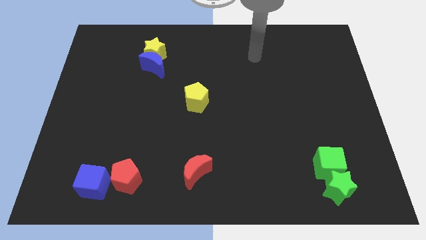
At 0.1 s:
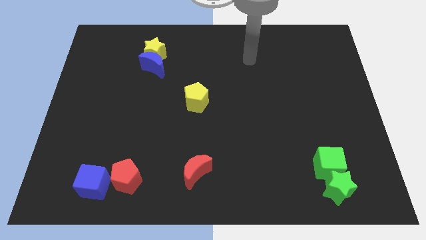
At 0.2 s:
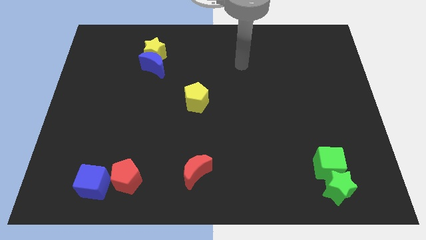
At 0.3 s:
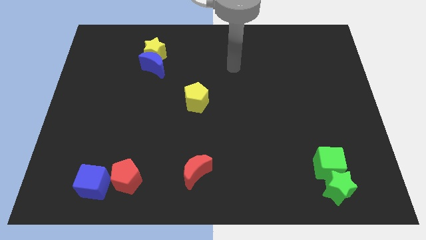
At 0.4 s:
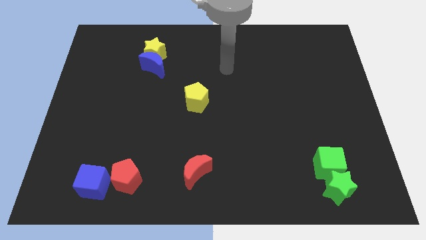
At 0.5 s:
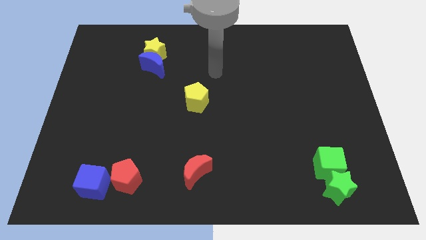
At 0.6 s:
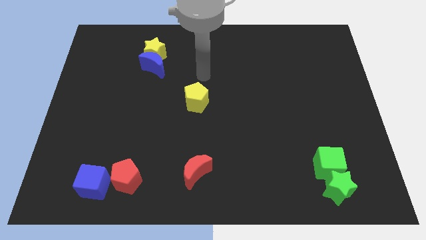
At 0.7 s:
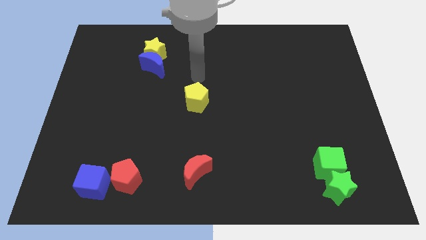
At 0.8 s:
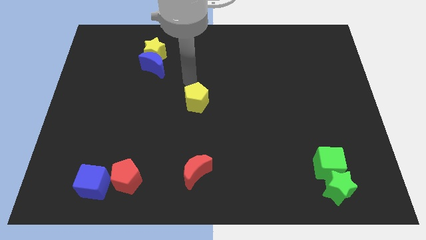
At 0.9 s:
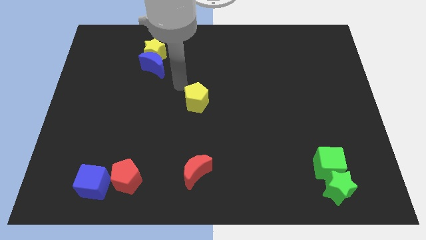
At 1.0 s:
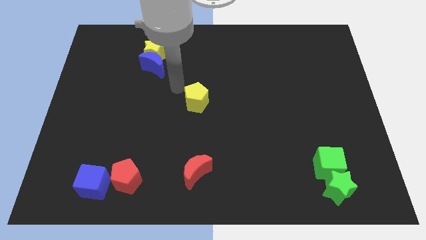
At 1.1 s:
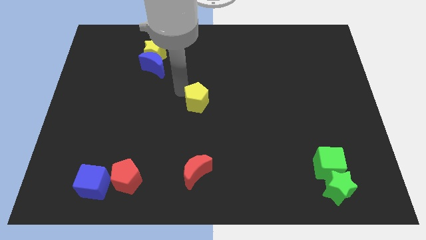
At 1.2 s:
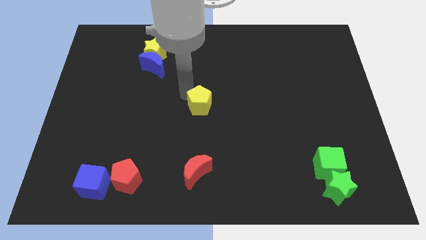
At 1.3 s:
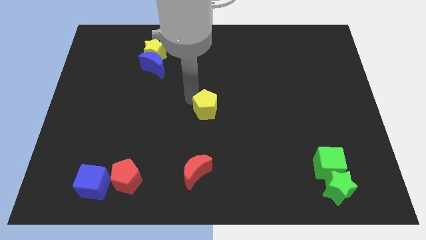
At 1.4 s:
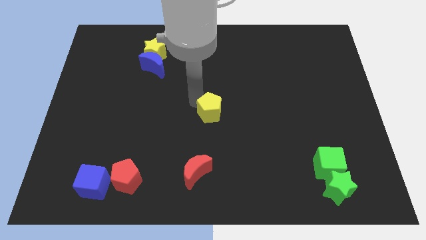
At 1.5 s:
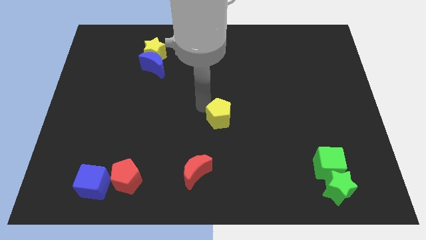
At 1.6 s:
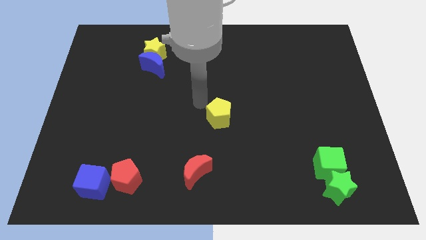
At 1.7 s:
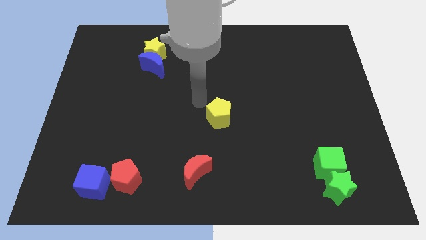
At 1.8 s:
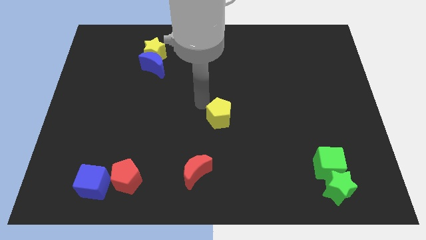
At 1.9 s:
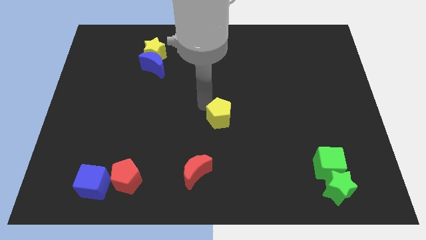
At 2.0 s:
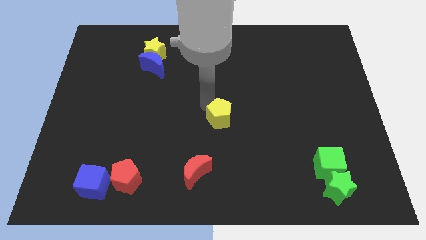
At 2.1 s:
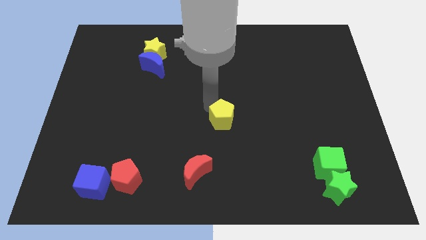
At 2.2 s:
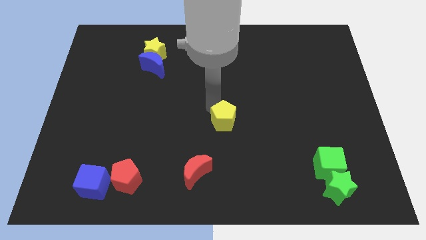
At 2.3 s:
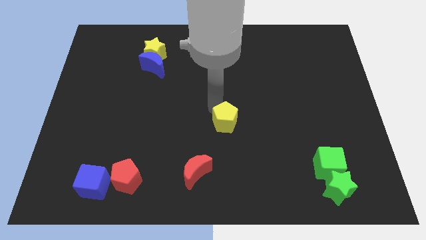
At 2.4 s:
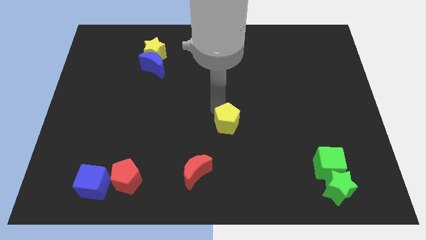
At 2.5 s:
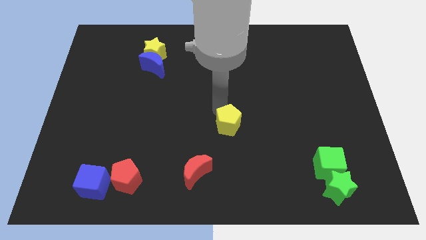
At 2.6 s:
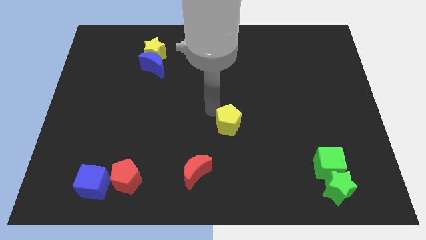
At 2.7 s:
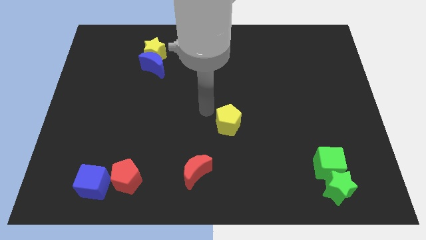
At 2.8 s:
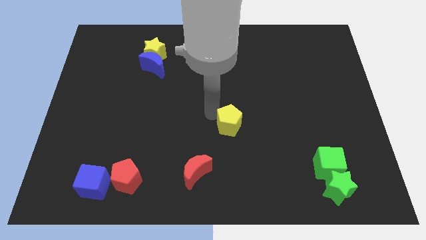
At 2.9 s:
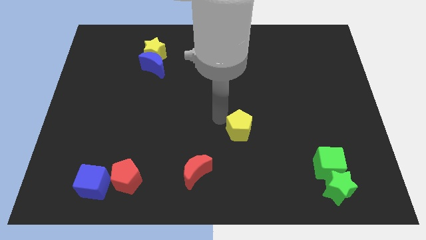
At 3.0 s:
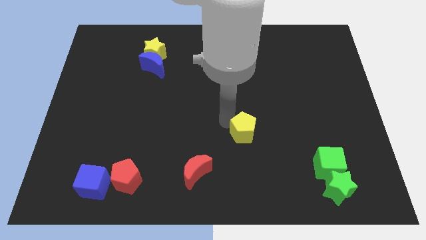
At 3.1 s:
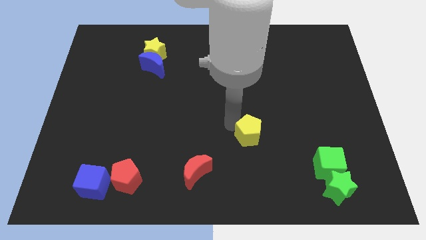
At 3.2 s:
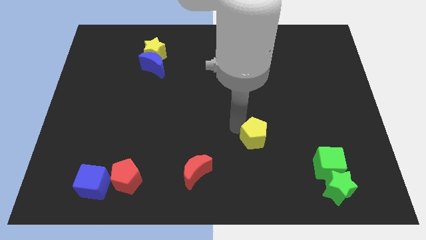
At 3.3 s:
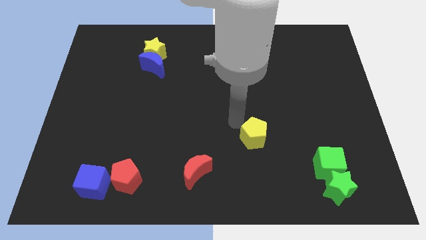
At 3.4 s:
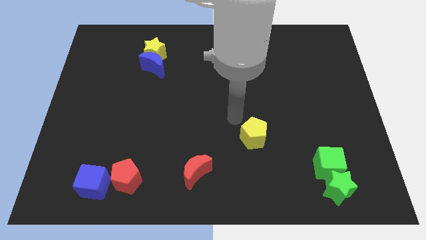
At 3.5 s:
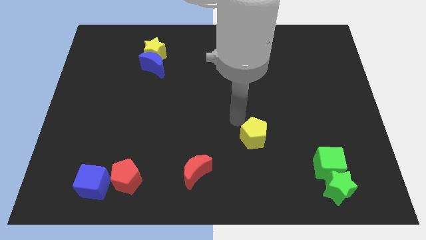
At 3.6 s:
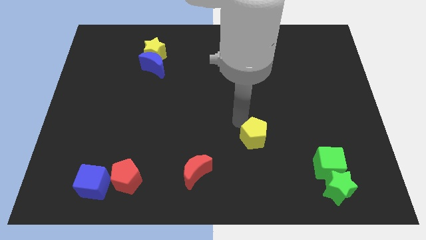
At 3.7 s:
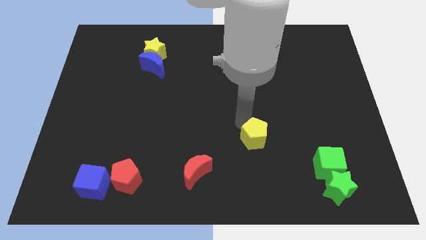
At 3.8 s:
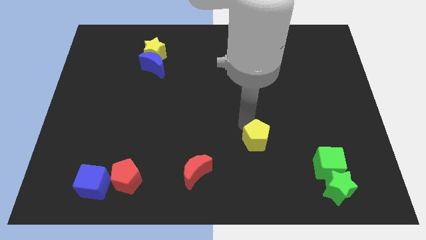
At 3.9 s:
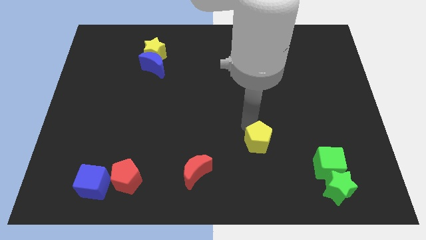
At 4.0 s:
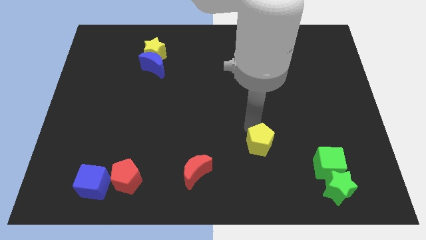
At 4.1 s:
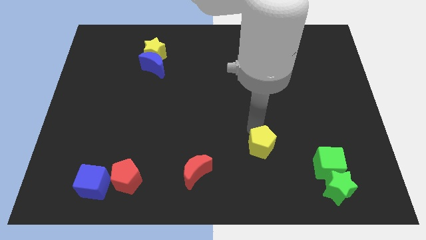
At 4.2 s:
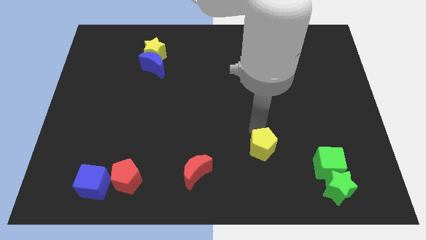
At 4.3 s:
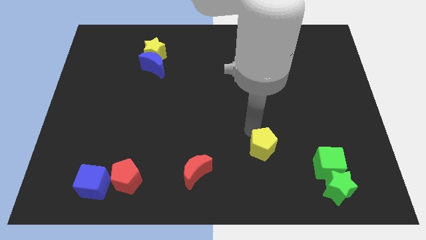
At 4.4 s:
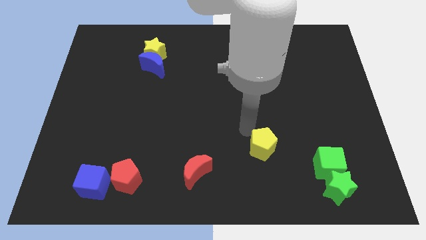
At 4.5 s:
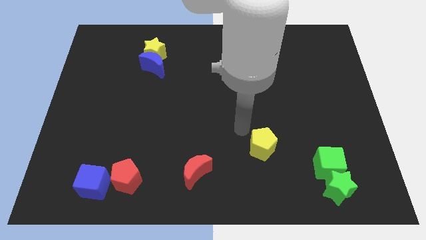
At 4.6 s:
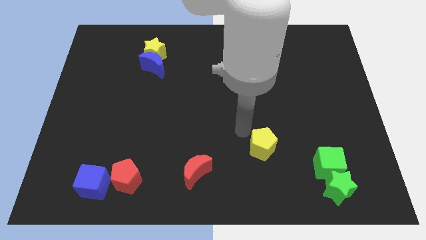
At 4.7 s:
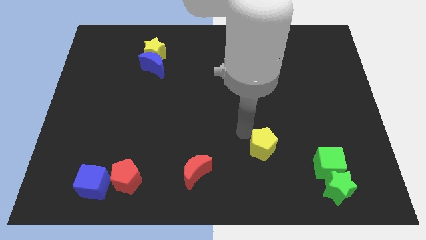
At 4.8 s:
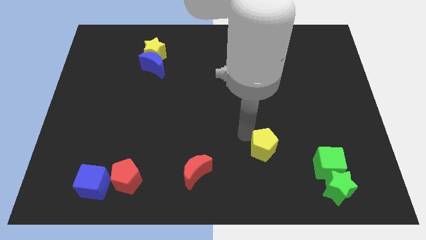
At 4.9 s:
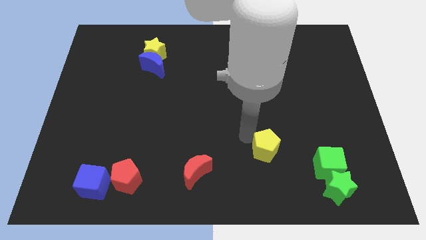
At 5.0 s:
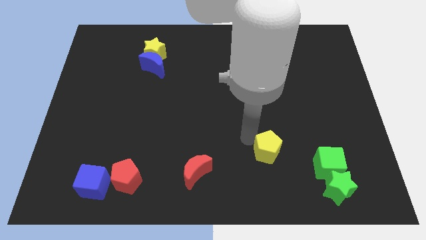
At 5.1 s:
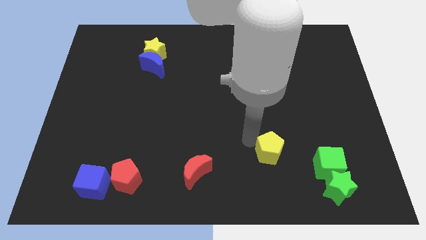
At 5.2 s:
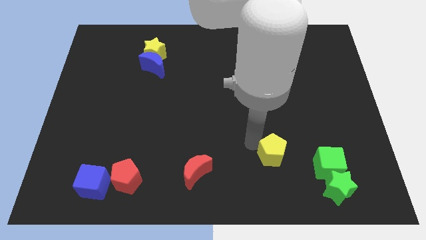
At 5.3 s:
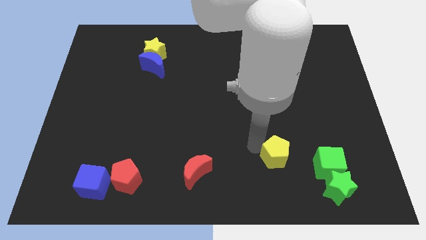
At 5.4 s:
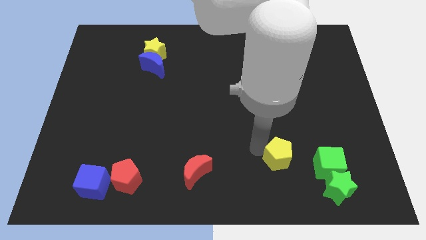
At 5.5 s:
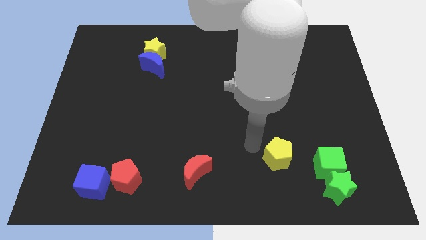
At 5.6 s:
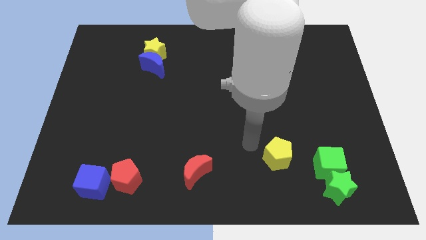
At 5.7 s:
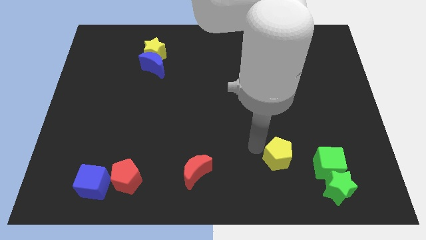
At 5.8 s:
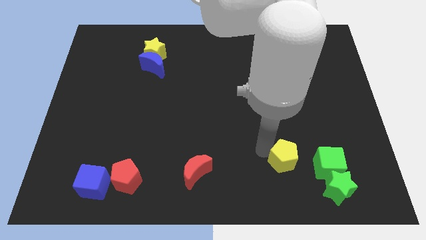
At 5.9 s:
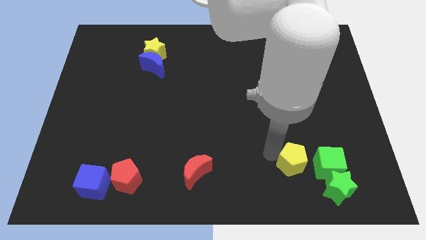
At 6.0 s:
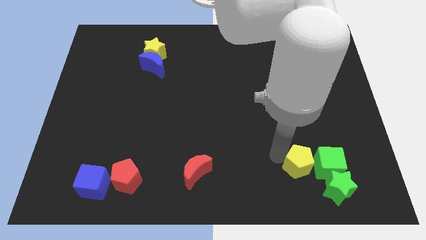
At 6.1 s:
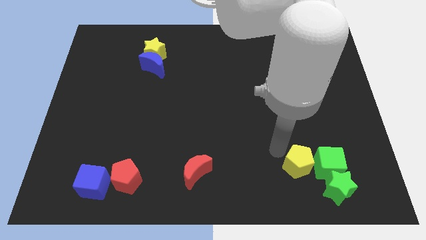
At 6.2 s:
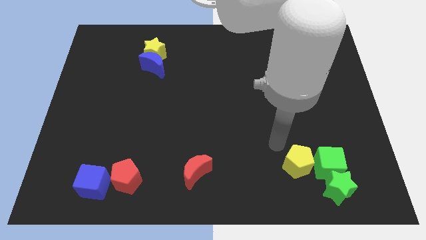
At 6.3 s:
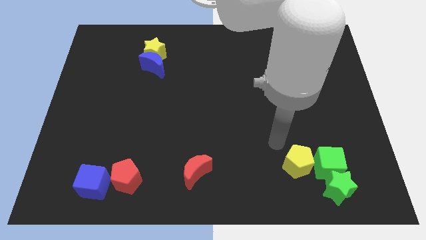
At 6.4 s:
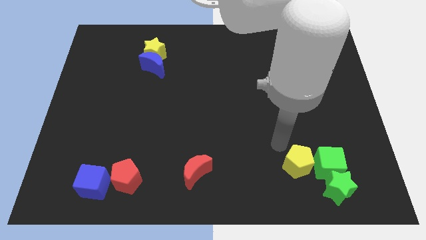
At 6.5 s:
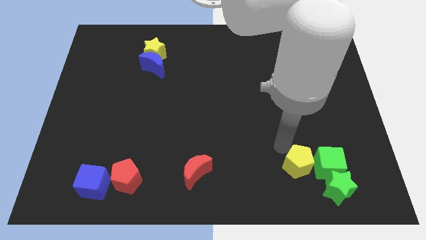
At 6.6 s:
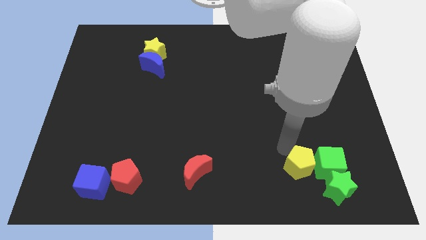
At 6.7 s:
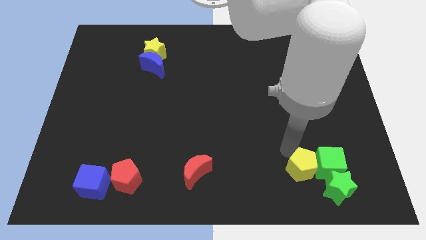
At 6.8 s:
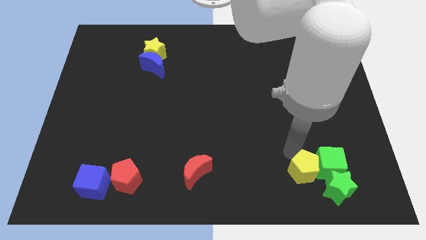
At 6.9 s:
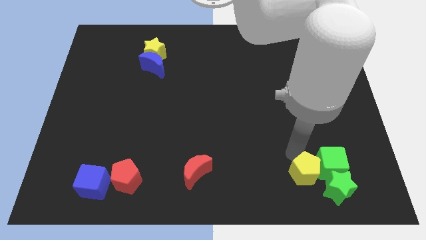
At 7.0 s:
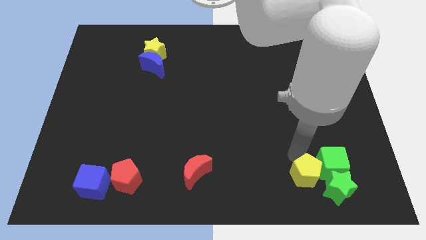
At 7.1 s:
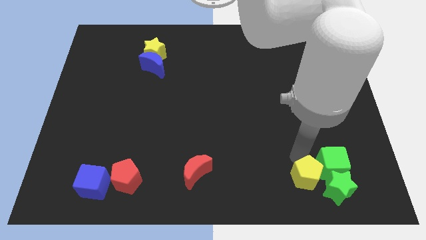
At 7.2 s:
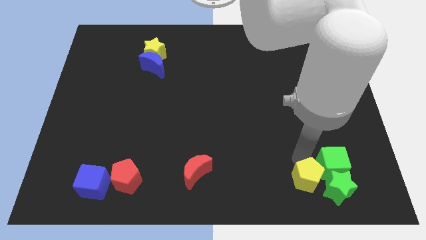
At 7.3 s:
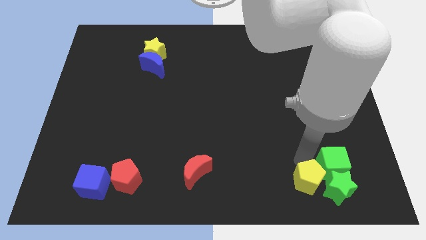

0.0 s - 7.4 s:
put the yellow pentagon close to the green star

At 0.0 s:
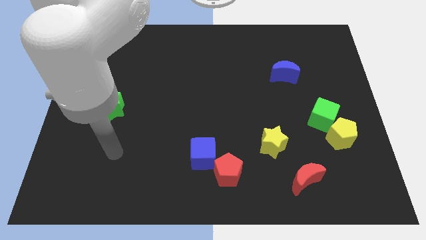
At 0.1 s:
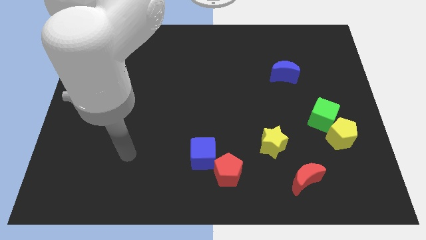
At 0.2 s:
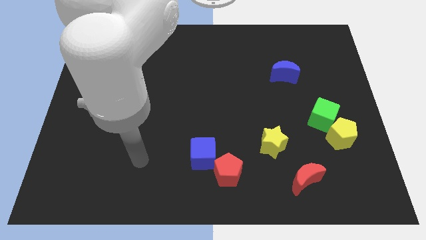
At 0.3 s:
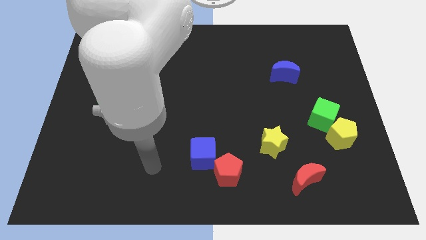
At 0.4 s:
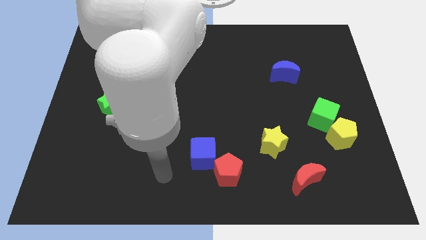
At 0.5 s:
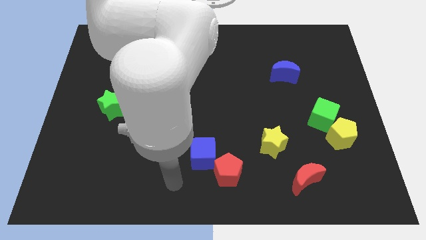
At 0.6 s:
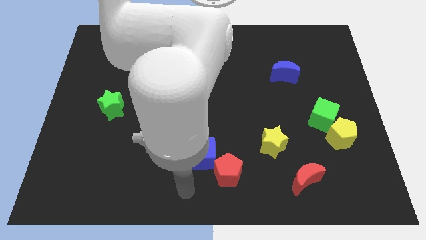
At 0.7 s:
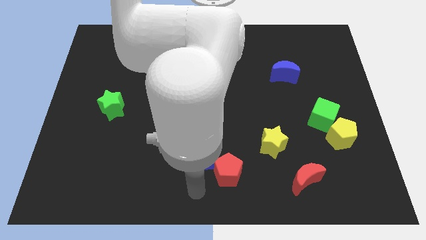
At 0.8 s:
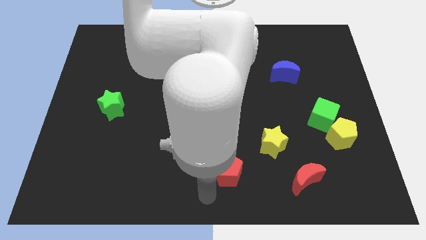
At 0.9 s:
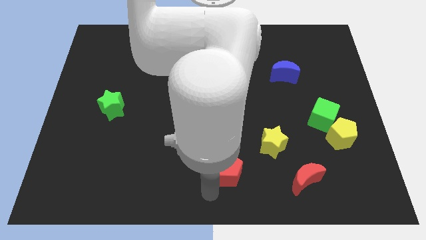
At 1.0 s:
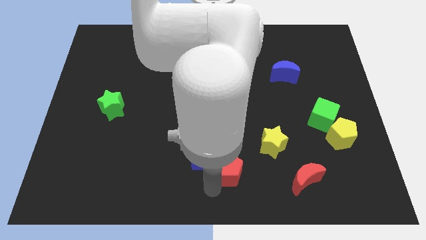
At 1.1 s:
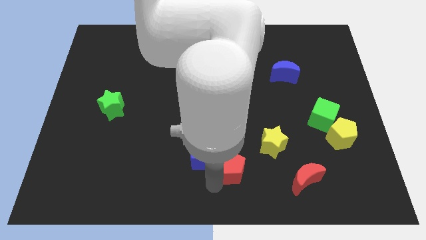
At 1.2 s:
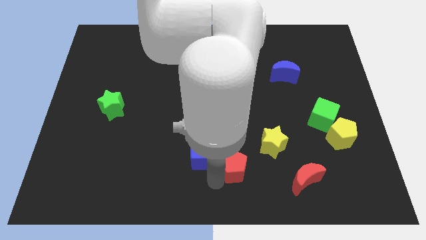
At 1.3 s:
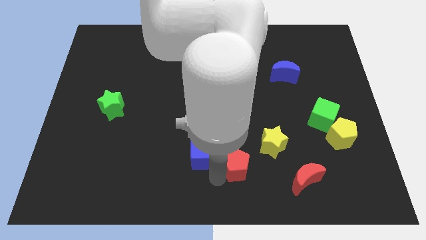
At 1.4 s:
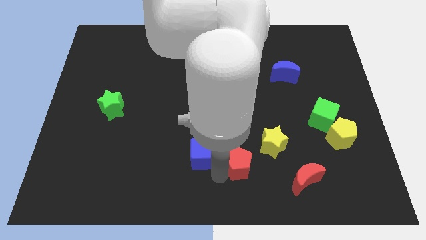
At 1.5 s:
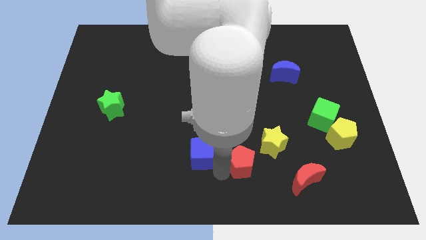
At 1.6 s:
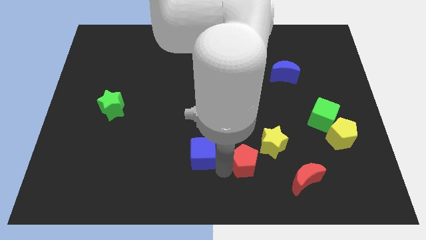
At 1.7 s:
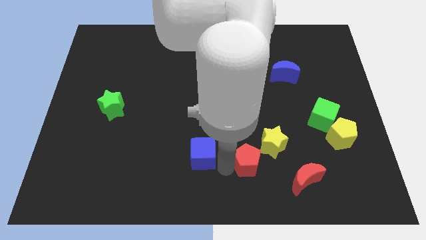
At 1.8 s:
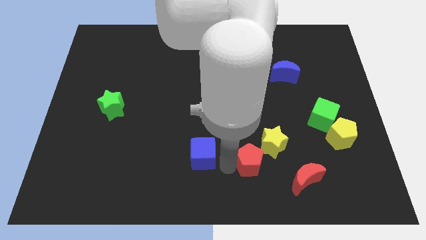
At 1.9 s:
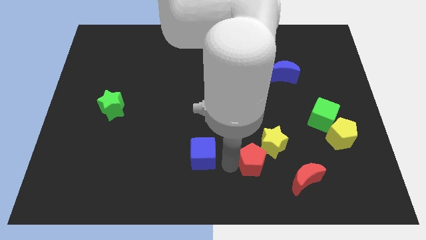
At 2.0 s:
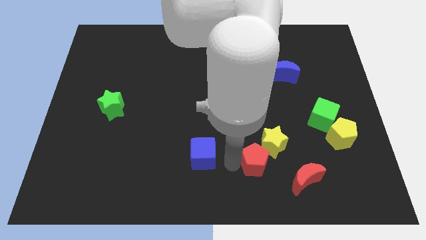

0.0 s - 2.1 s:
put the red pentagon close to the yellow star
